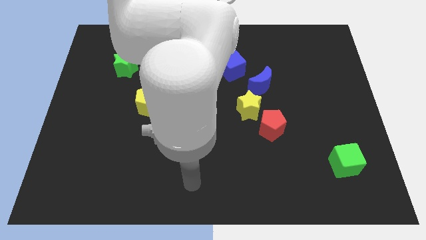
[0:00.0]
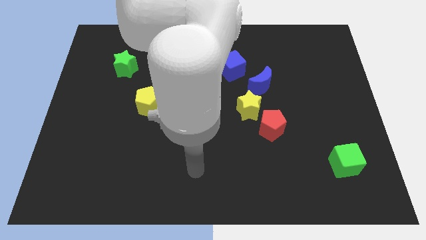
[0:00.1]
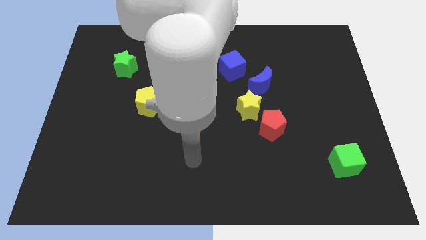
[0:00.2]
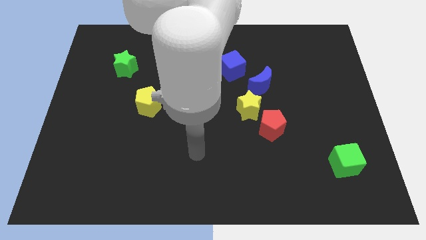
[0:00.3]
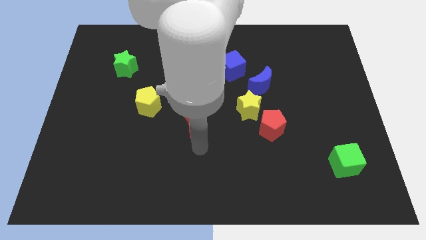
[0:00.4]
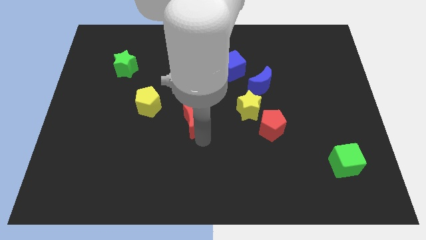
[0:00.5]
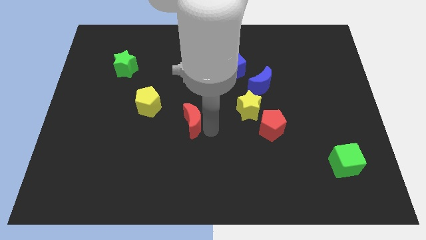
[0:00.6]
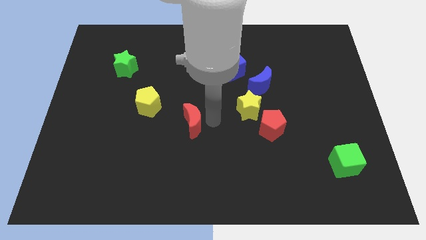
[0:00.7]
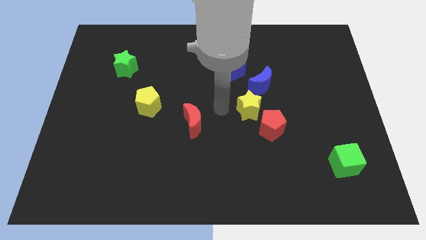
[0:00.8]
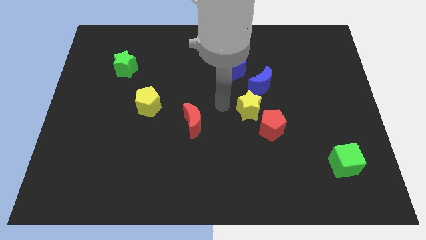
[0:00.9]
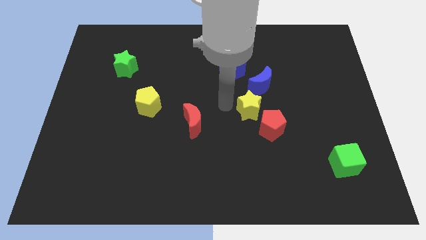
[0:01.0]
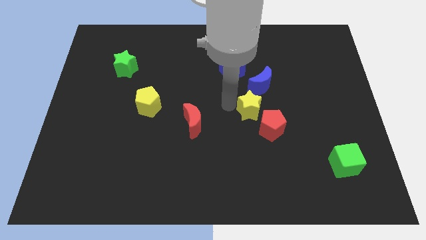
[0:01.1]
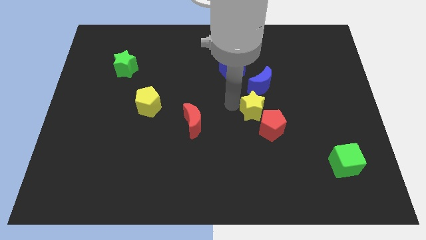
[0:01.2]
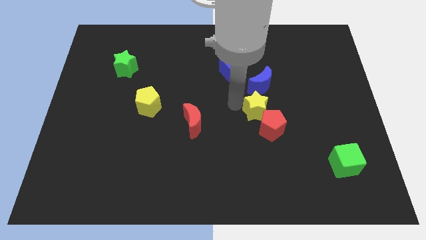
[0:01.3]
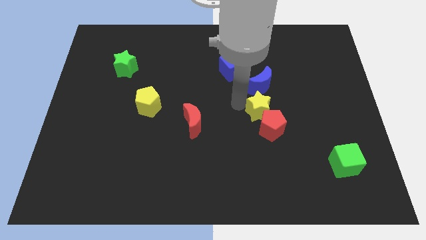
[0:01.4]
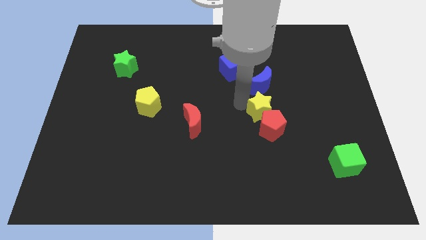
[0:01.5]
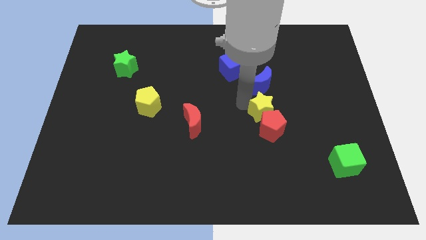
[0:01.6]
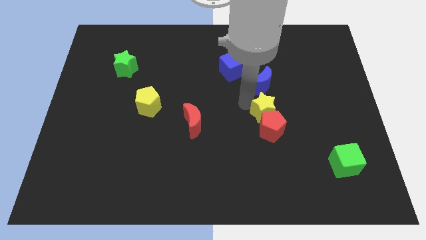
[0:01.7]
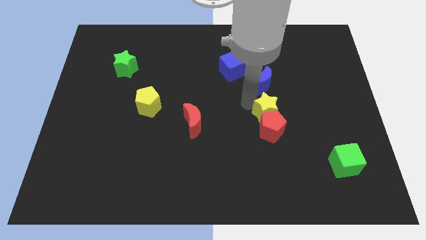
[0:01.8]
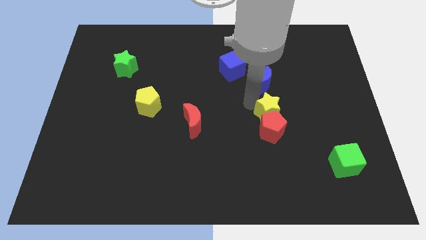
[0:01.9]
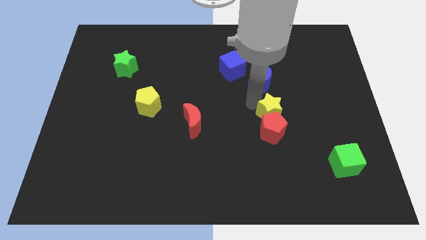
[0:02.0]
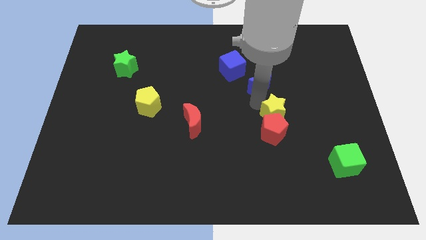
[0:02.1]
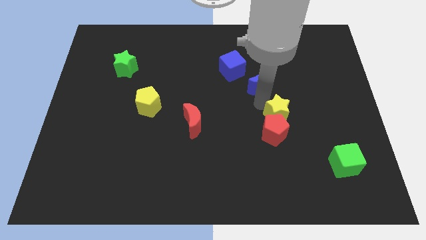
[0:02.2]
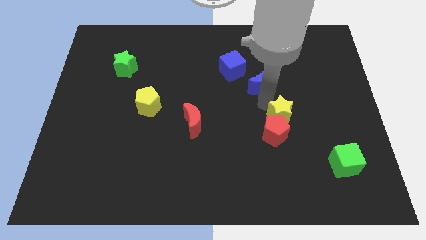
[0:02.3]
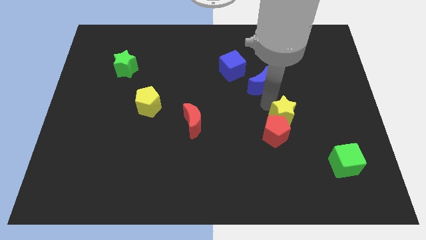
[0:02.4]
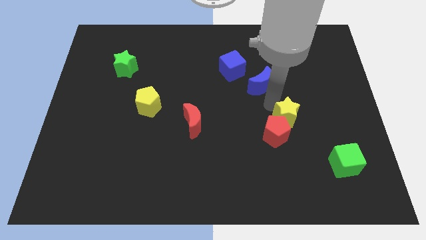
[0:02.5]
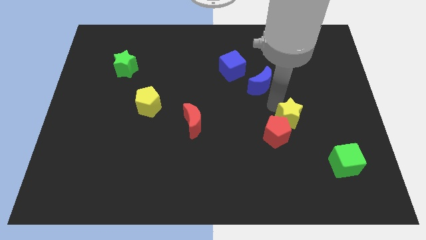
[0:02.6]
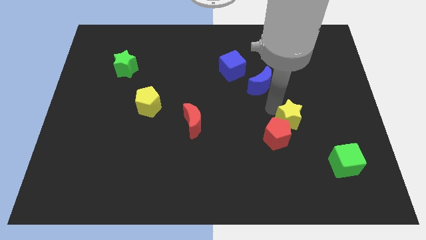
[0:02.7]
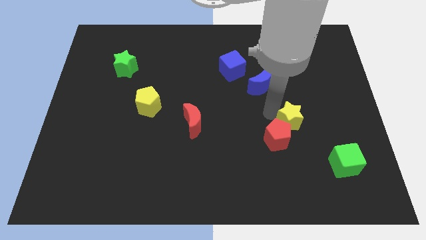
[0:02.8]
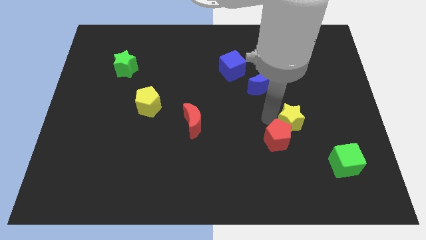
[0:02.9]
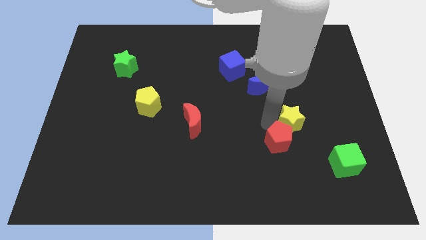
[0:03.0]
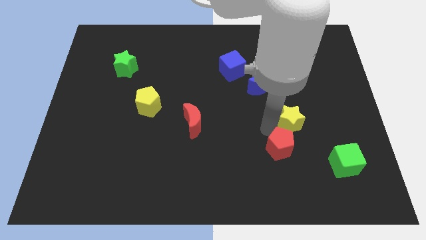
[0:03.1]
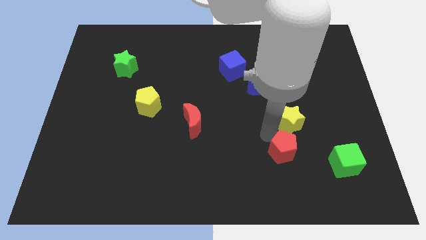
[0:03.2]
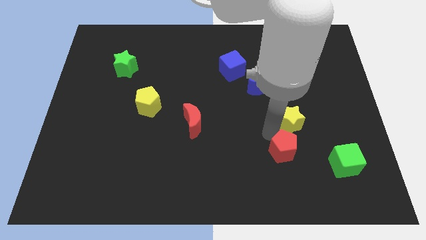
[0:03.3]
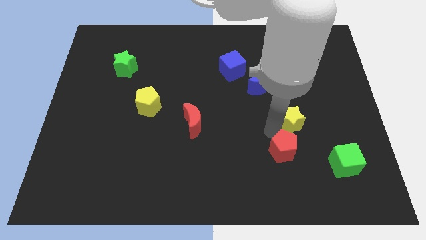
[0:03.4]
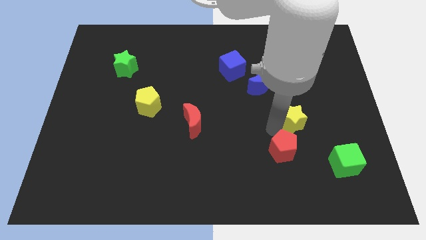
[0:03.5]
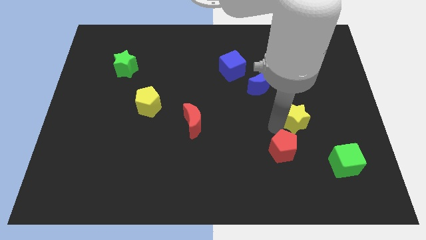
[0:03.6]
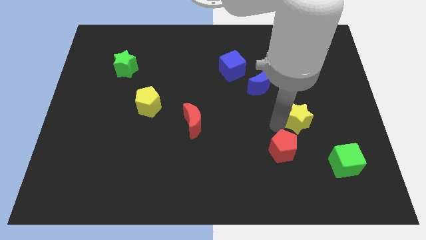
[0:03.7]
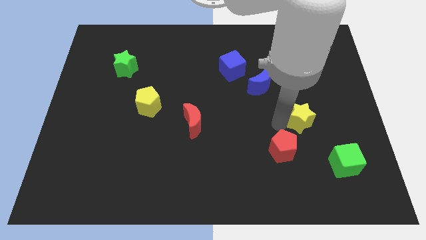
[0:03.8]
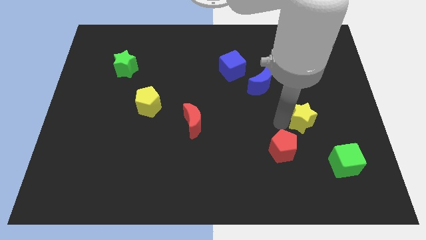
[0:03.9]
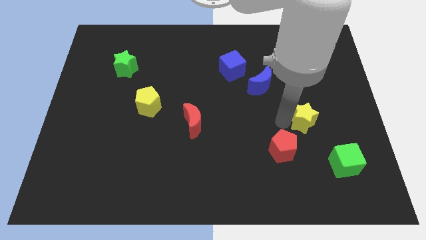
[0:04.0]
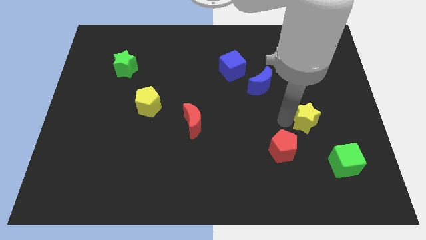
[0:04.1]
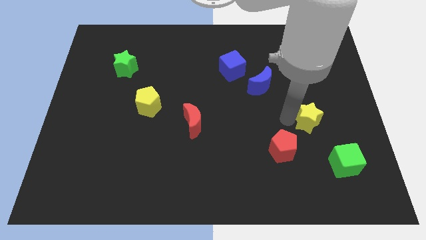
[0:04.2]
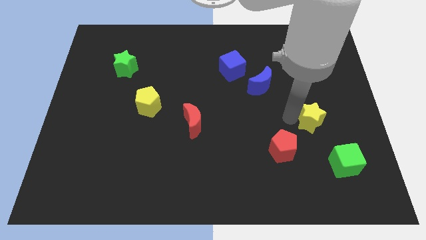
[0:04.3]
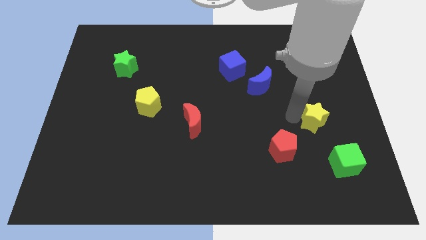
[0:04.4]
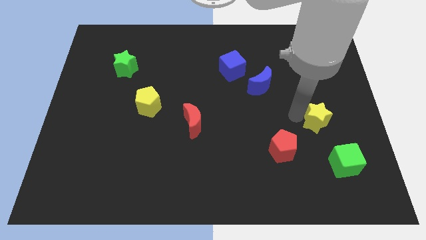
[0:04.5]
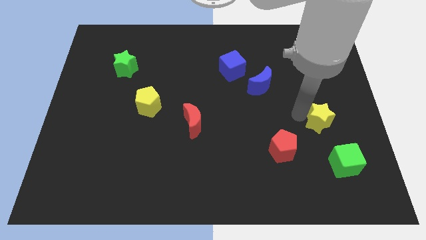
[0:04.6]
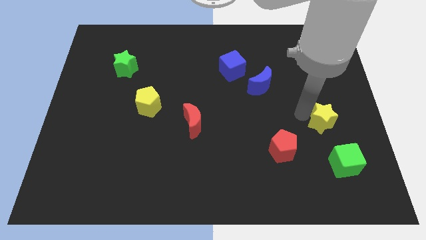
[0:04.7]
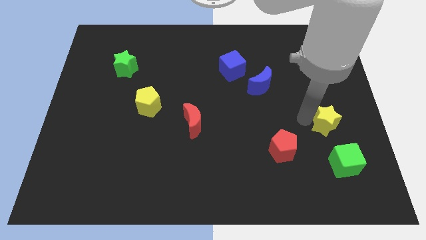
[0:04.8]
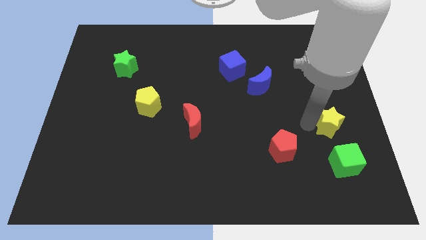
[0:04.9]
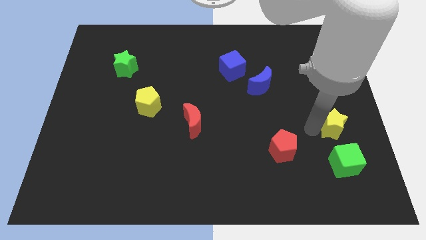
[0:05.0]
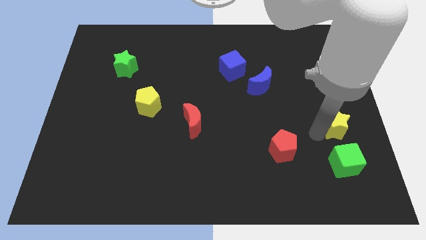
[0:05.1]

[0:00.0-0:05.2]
move the yellow star to the right side

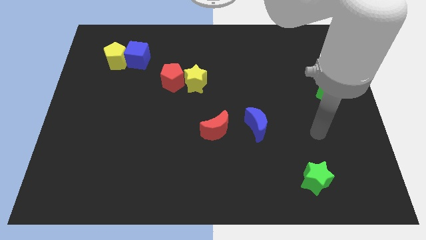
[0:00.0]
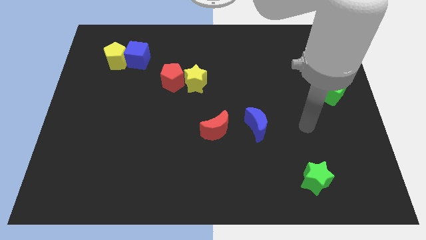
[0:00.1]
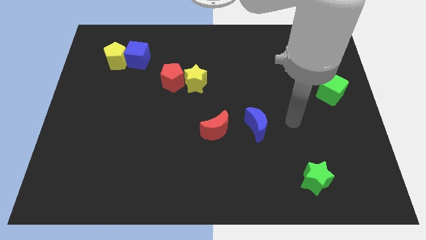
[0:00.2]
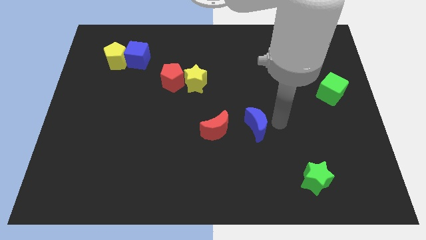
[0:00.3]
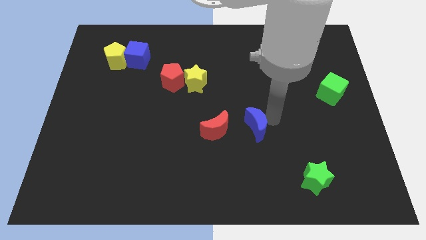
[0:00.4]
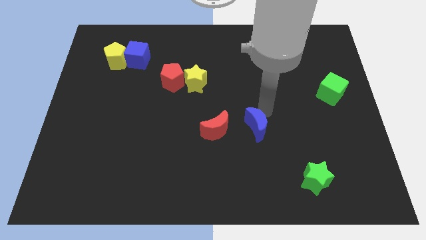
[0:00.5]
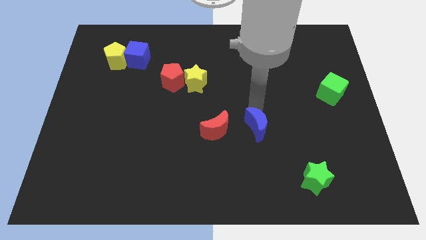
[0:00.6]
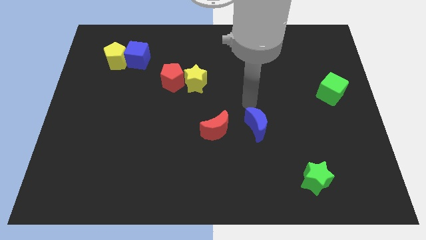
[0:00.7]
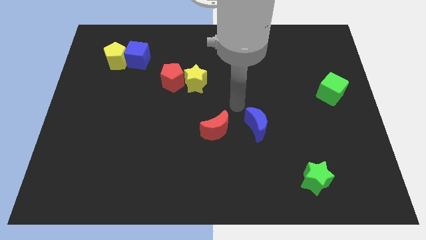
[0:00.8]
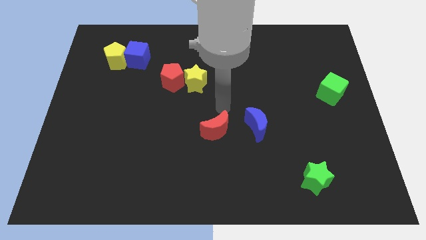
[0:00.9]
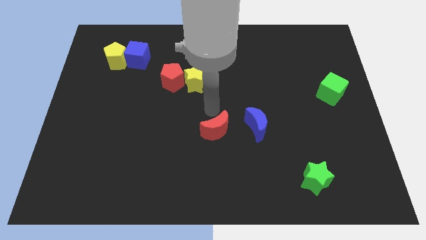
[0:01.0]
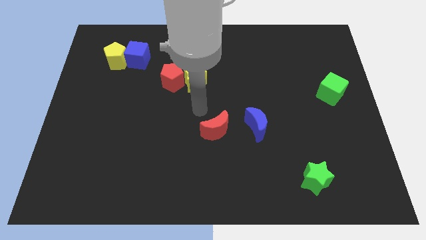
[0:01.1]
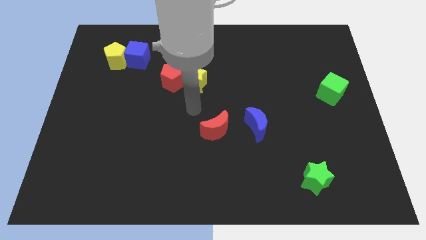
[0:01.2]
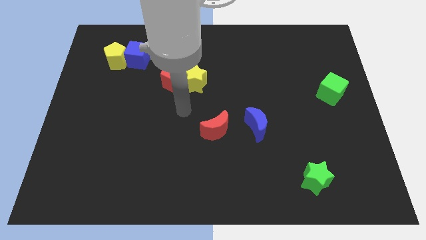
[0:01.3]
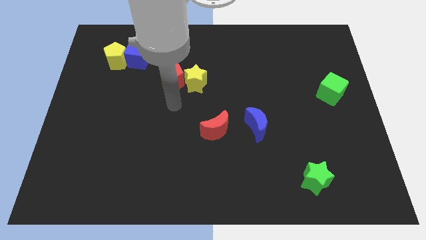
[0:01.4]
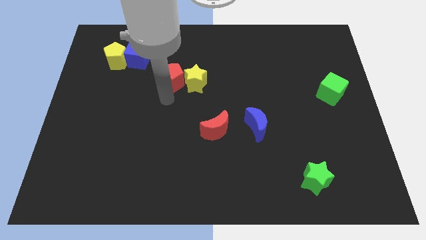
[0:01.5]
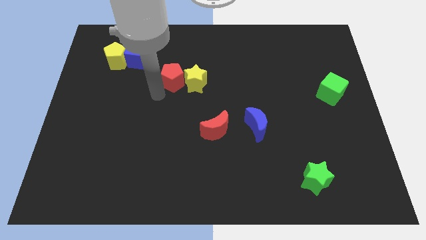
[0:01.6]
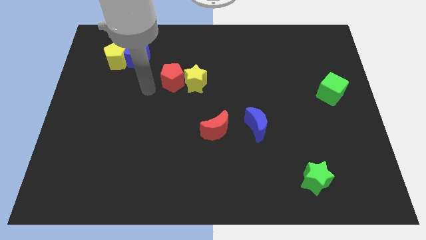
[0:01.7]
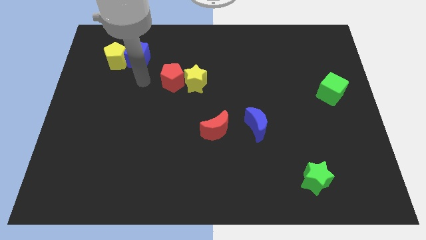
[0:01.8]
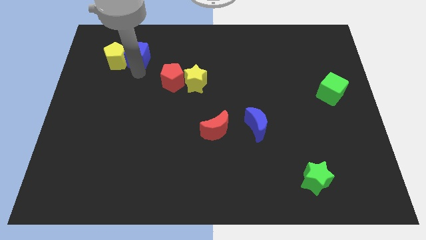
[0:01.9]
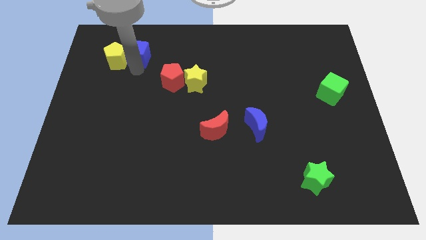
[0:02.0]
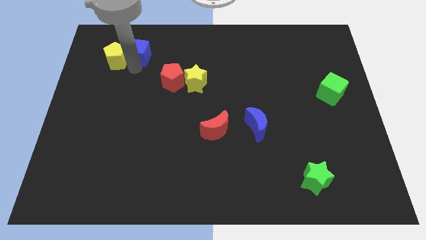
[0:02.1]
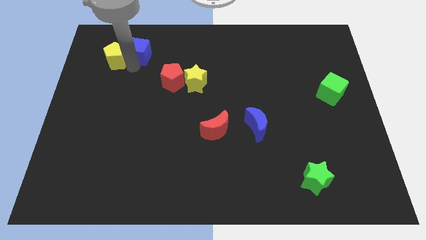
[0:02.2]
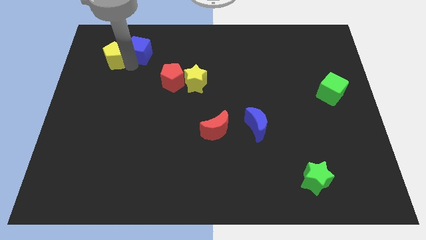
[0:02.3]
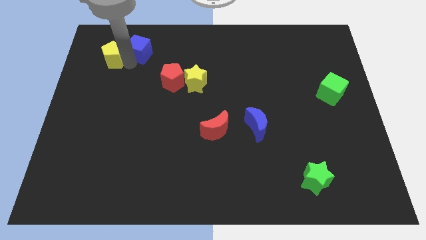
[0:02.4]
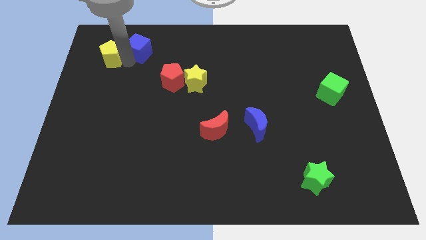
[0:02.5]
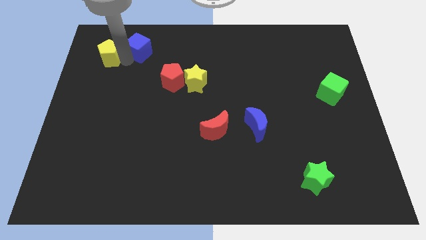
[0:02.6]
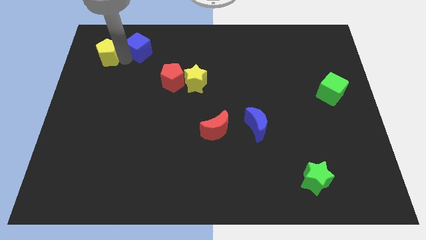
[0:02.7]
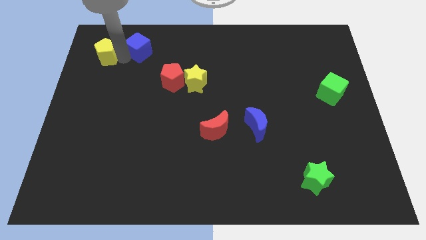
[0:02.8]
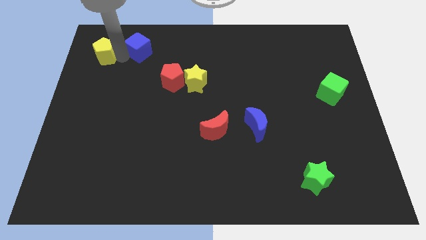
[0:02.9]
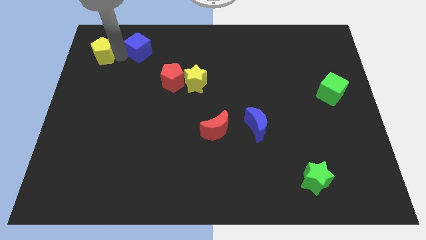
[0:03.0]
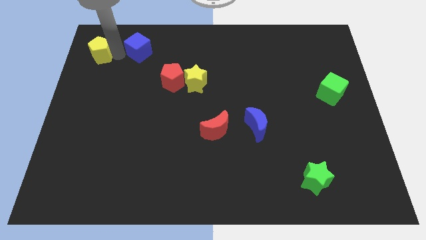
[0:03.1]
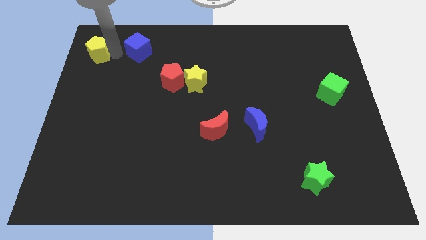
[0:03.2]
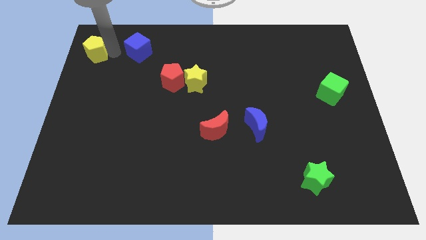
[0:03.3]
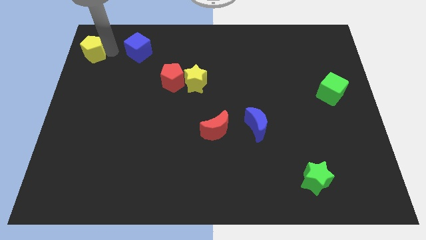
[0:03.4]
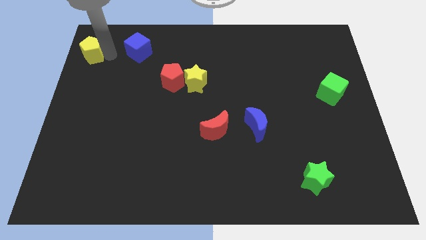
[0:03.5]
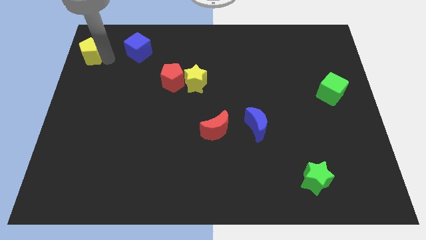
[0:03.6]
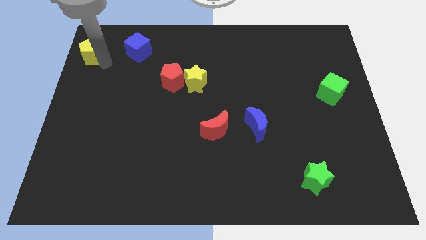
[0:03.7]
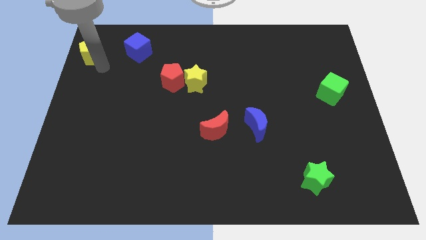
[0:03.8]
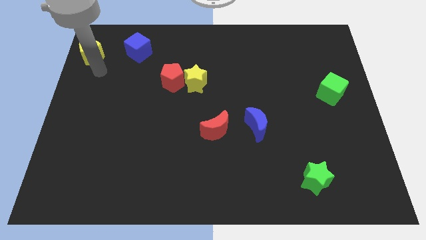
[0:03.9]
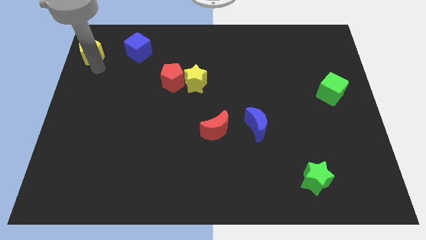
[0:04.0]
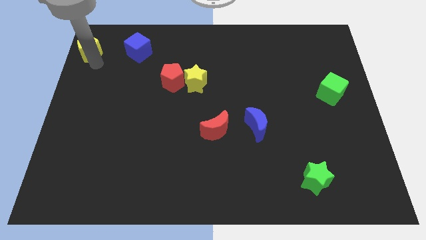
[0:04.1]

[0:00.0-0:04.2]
slide the yellow pentagon to the top left
